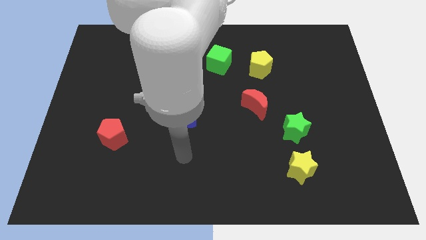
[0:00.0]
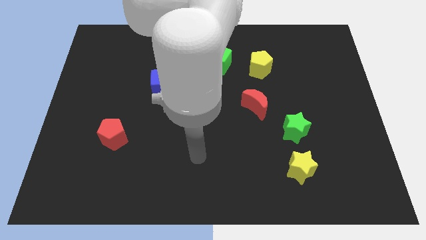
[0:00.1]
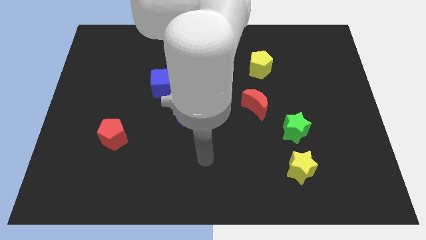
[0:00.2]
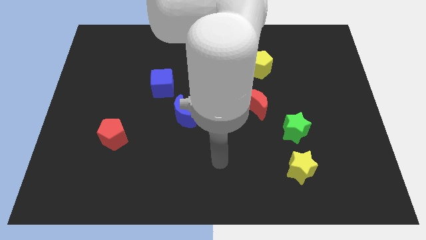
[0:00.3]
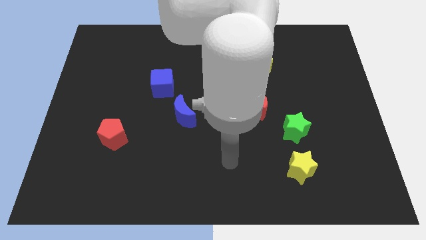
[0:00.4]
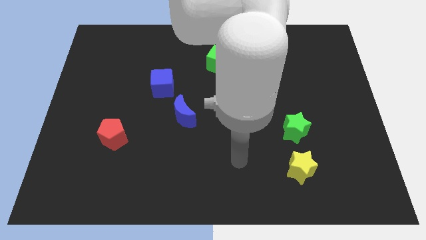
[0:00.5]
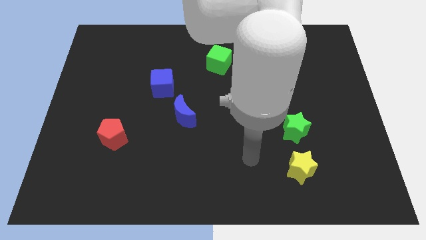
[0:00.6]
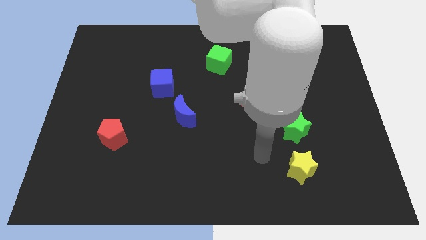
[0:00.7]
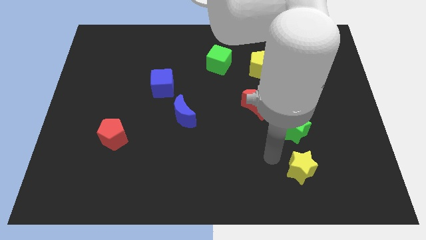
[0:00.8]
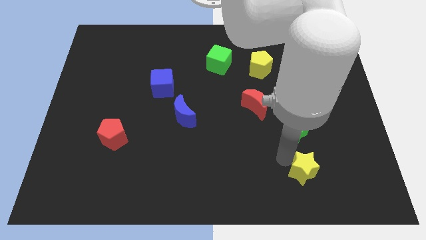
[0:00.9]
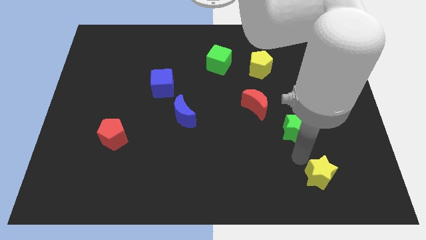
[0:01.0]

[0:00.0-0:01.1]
move the green star away from the yellow star

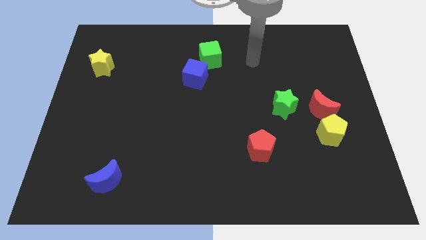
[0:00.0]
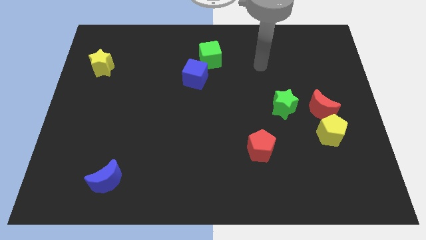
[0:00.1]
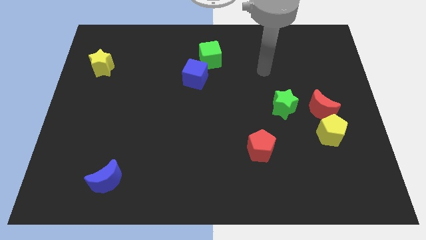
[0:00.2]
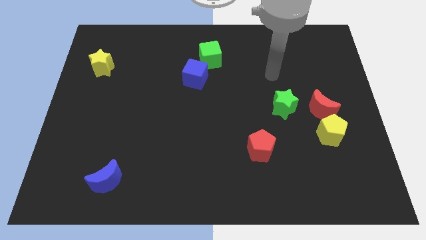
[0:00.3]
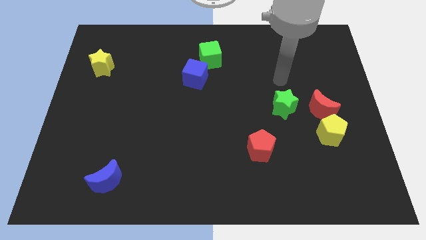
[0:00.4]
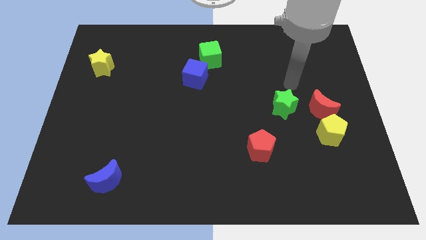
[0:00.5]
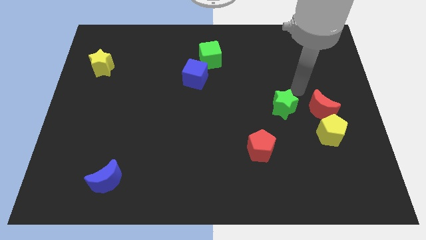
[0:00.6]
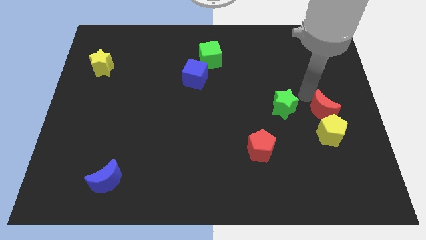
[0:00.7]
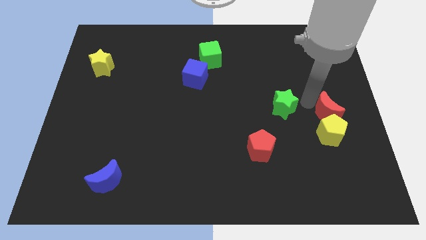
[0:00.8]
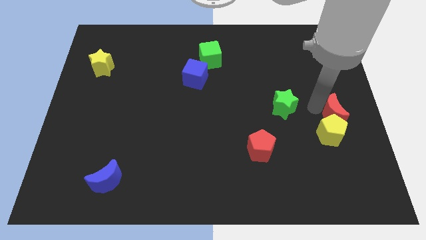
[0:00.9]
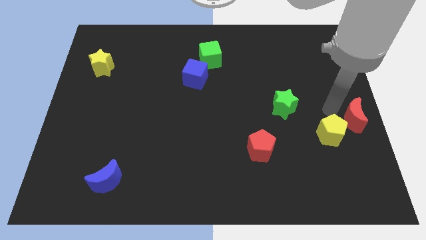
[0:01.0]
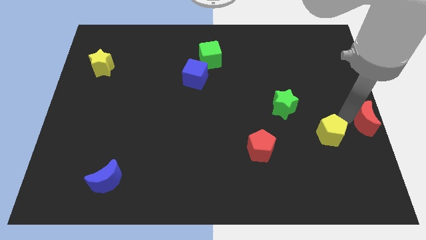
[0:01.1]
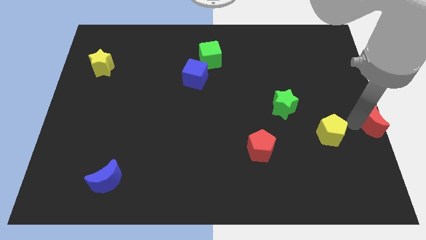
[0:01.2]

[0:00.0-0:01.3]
pull the yellow pentagon apart from the red moon

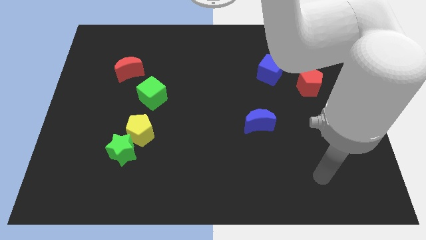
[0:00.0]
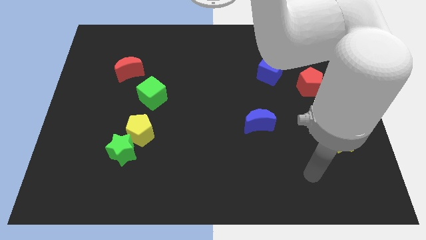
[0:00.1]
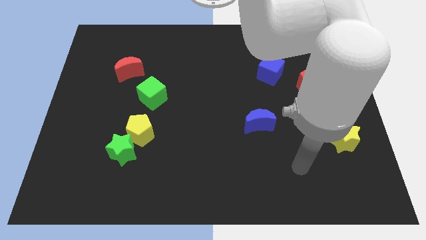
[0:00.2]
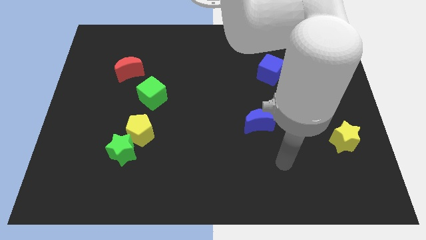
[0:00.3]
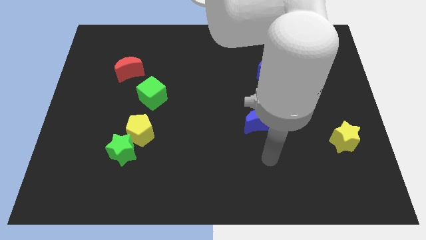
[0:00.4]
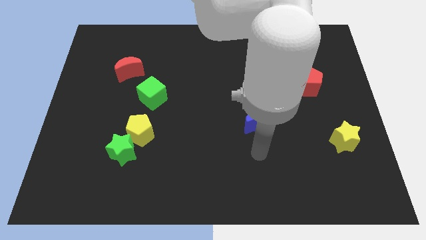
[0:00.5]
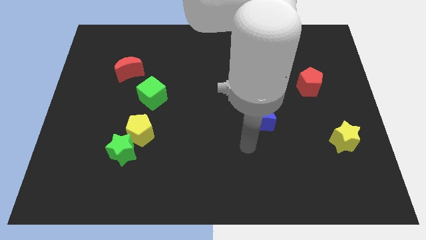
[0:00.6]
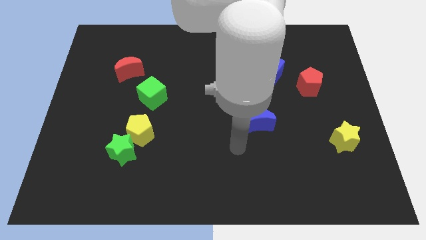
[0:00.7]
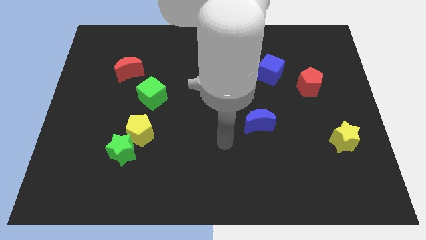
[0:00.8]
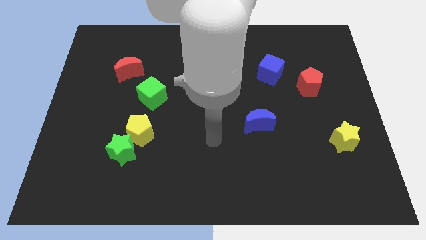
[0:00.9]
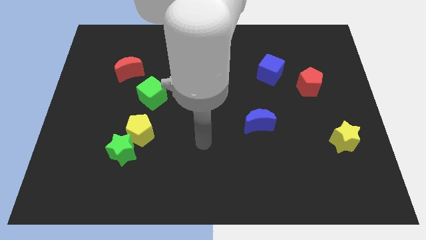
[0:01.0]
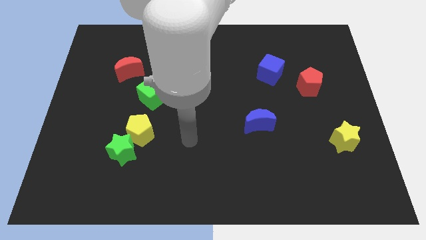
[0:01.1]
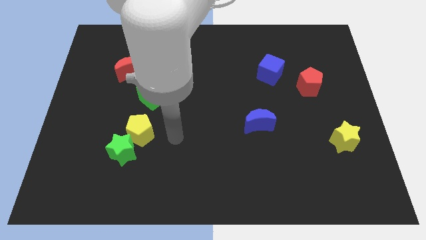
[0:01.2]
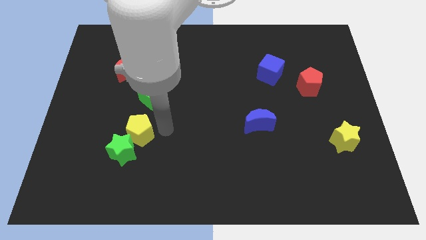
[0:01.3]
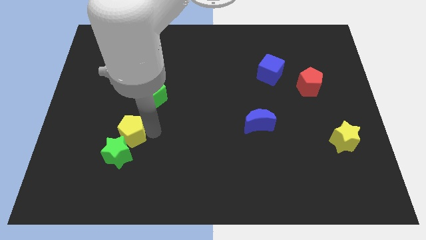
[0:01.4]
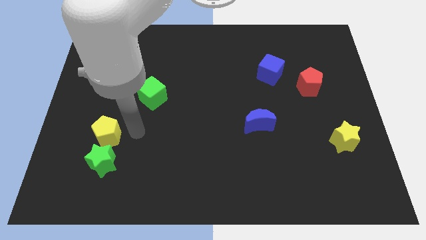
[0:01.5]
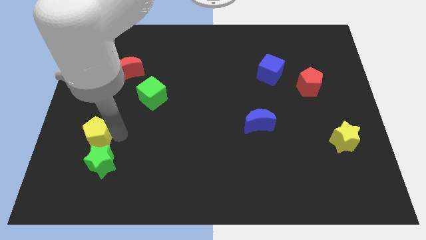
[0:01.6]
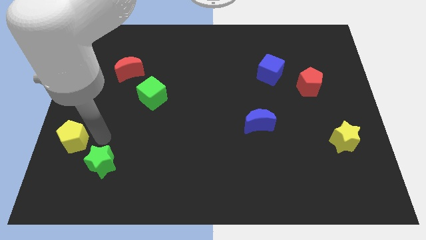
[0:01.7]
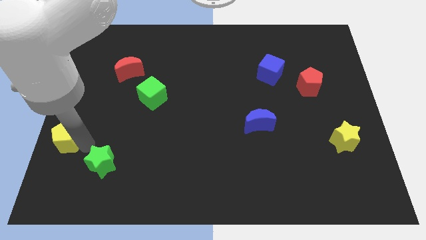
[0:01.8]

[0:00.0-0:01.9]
separate the green star from the yellow pentagon

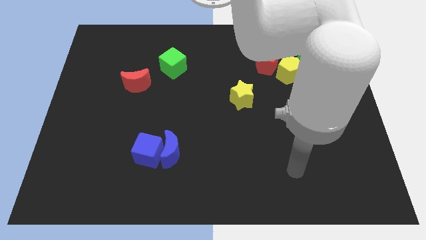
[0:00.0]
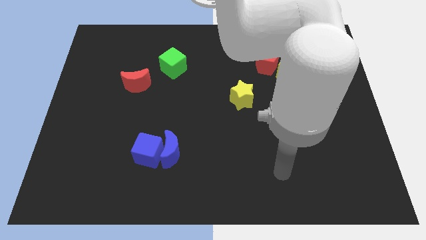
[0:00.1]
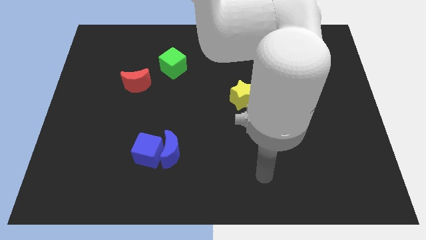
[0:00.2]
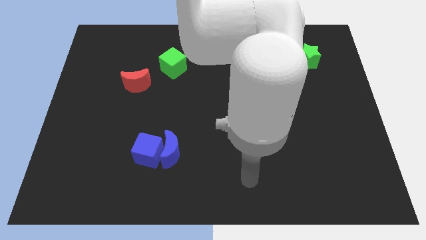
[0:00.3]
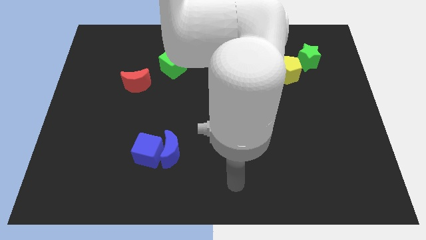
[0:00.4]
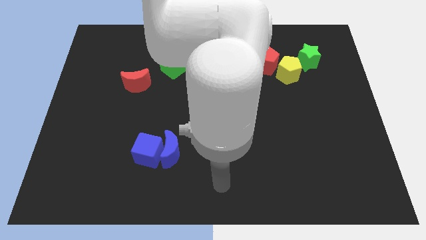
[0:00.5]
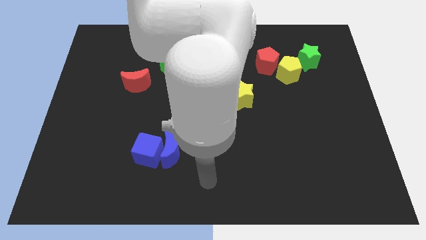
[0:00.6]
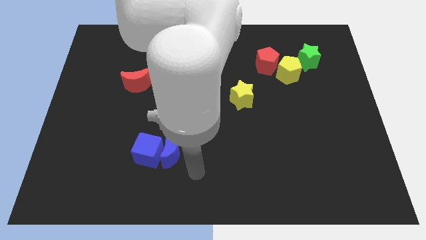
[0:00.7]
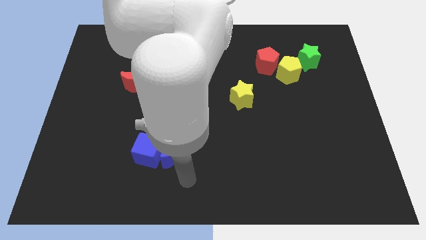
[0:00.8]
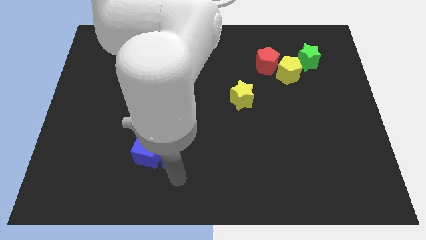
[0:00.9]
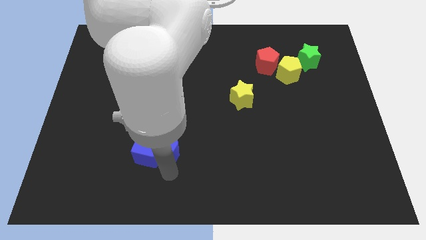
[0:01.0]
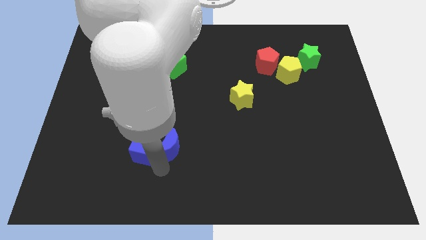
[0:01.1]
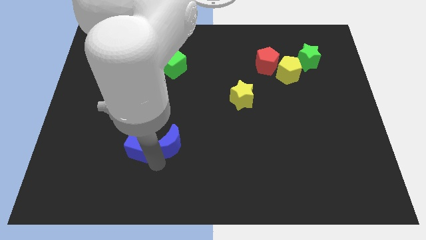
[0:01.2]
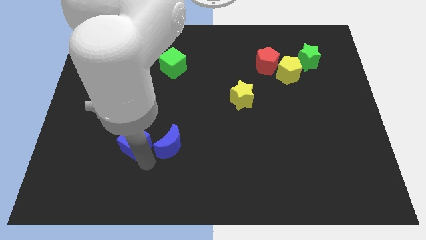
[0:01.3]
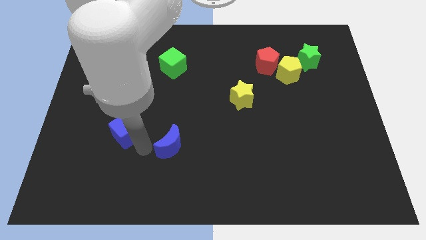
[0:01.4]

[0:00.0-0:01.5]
move the blue moon away from the blue cube

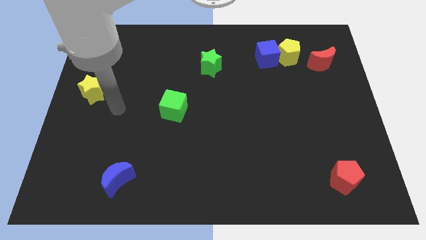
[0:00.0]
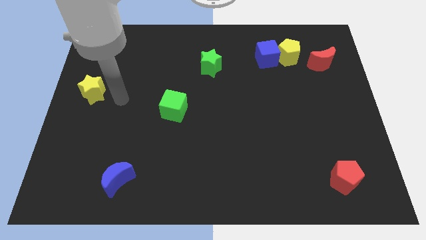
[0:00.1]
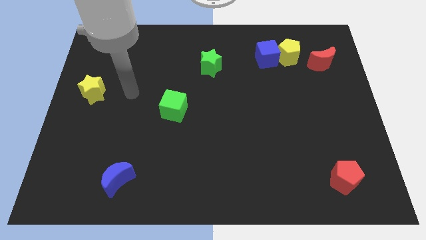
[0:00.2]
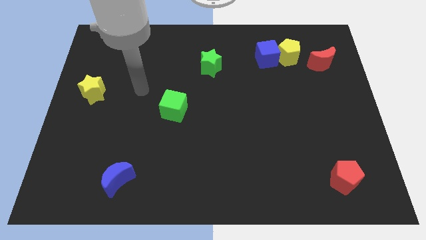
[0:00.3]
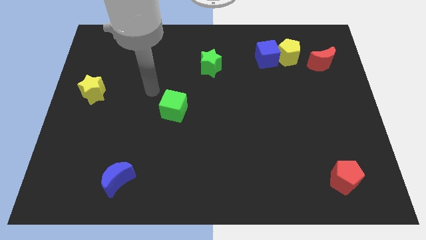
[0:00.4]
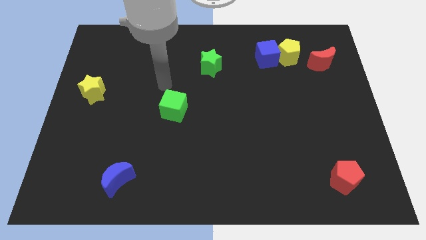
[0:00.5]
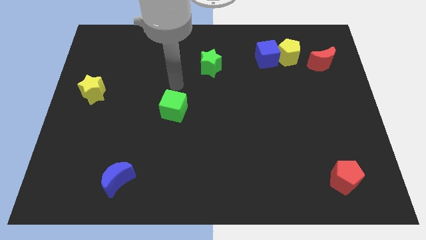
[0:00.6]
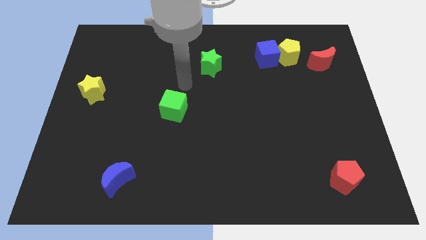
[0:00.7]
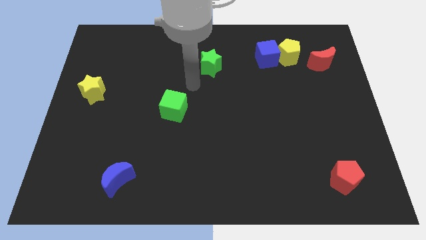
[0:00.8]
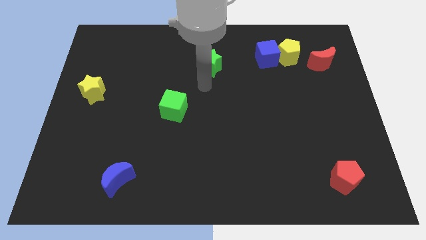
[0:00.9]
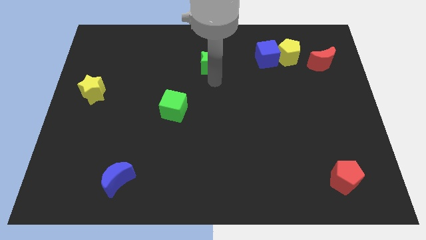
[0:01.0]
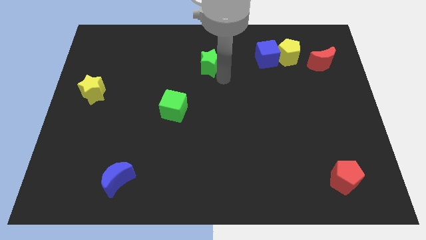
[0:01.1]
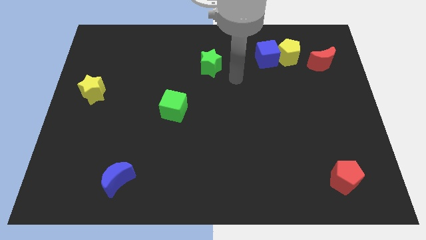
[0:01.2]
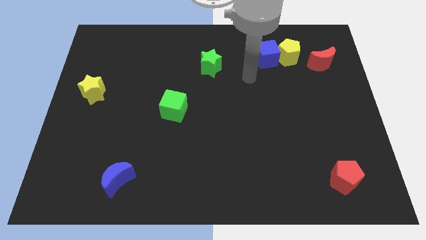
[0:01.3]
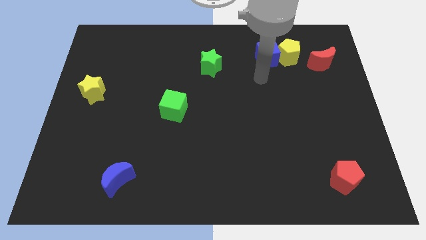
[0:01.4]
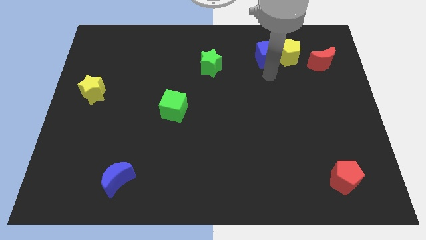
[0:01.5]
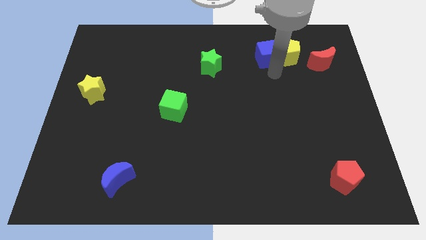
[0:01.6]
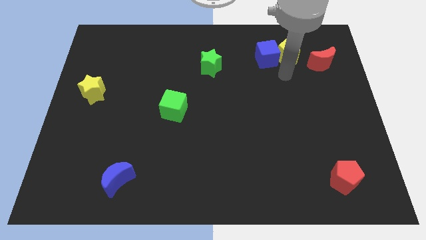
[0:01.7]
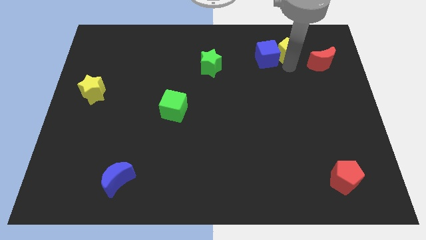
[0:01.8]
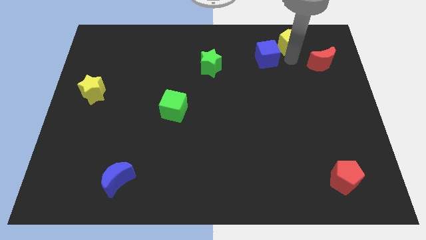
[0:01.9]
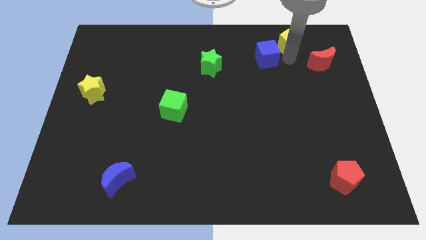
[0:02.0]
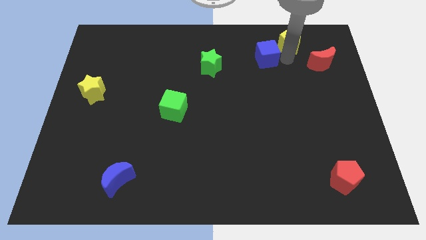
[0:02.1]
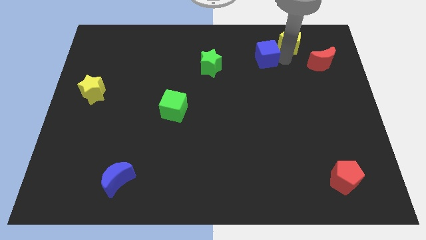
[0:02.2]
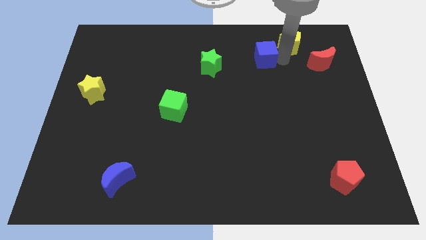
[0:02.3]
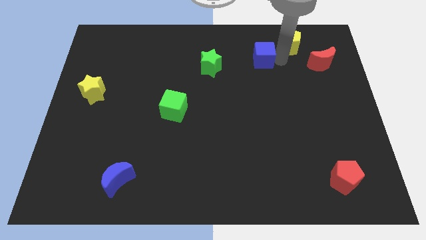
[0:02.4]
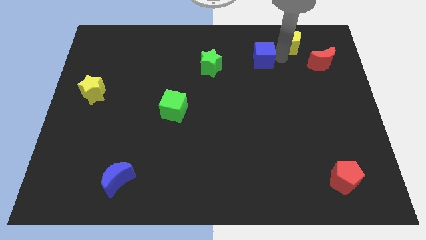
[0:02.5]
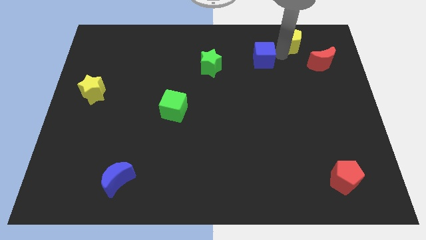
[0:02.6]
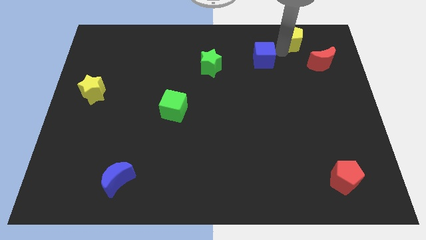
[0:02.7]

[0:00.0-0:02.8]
move the blue cube away from the yellow pentagon

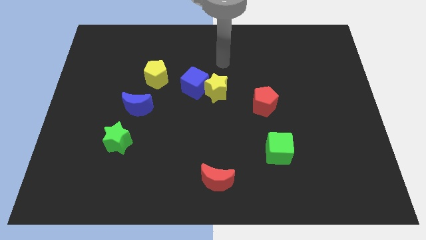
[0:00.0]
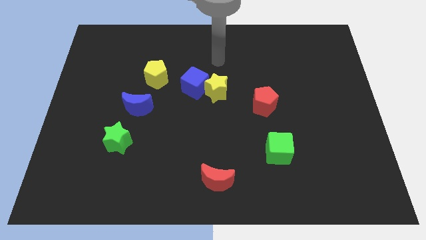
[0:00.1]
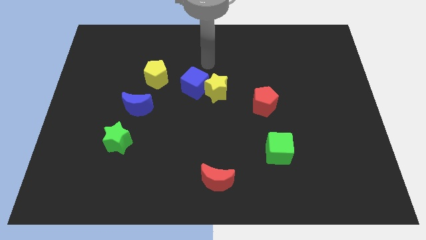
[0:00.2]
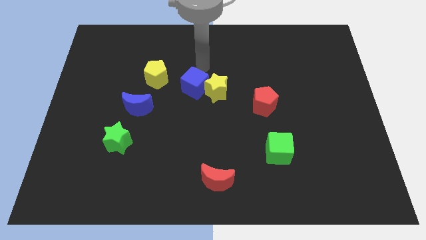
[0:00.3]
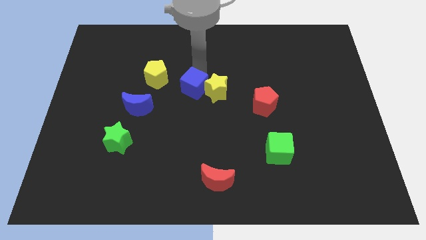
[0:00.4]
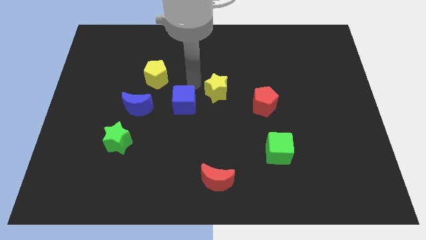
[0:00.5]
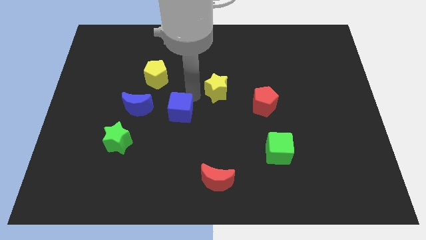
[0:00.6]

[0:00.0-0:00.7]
pull the yellow star apart from the blue cube
